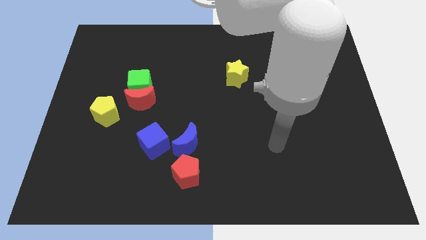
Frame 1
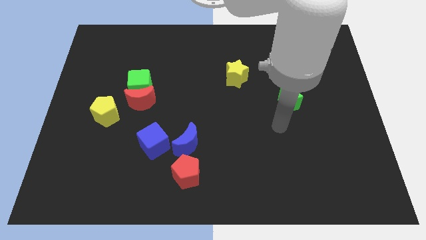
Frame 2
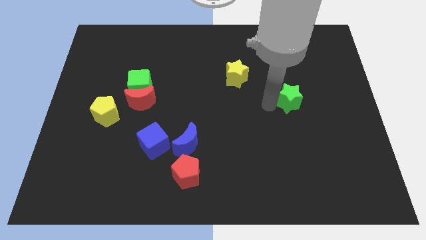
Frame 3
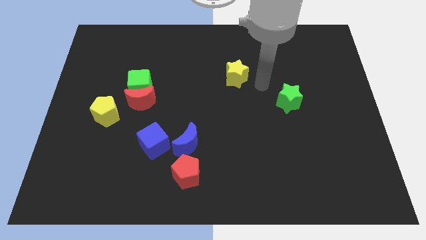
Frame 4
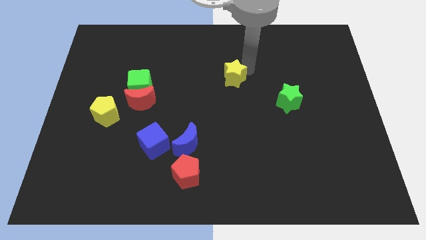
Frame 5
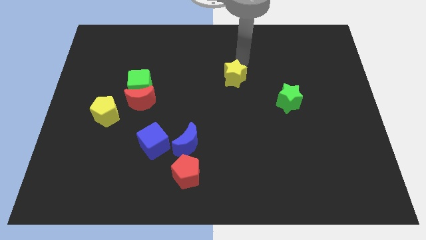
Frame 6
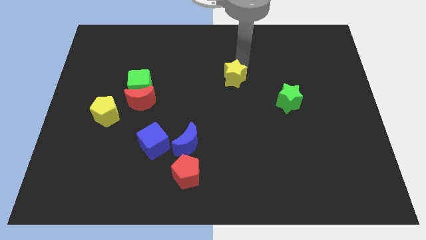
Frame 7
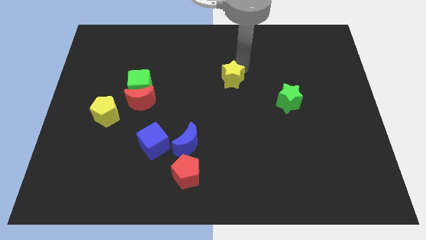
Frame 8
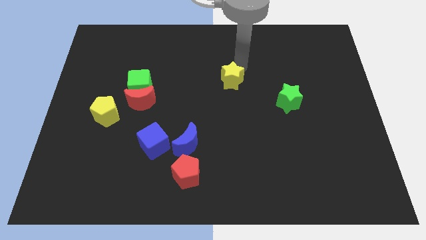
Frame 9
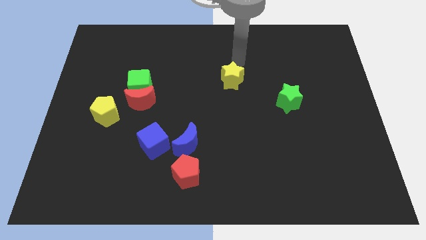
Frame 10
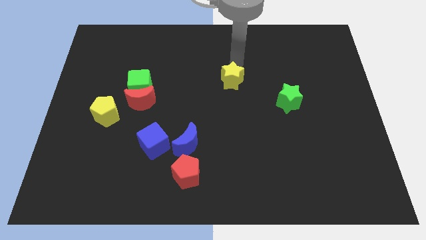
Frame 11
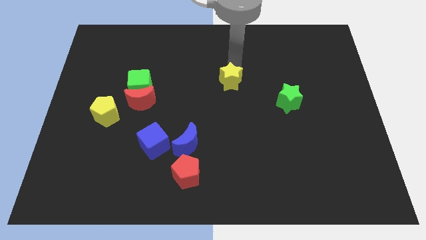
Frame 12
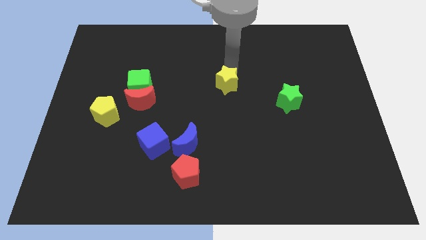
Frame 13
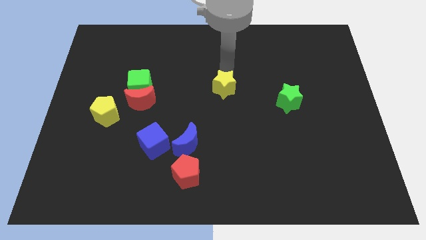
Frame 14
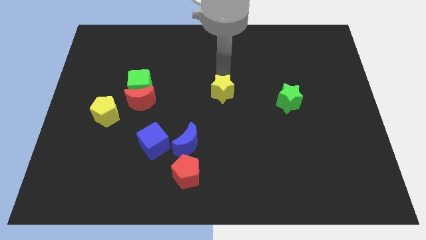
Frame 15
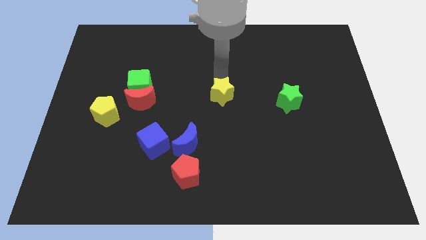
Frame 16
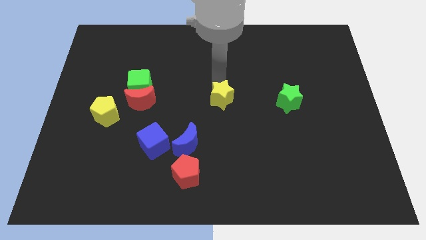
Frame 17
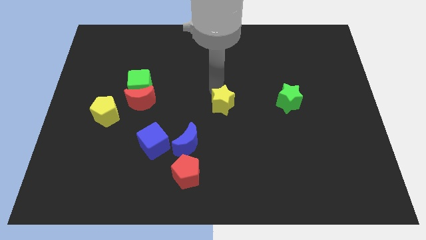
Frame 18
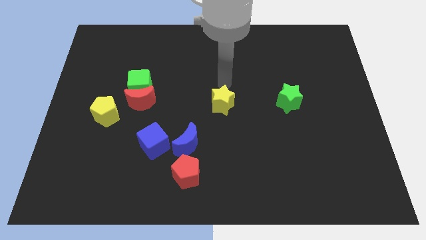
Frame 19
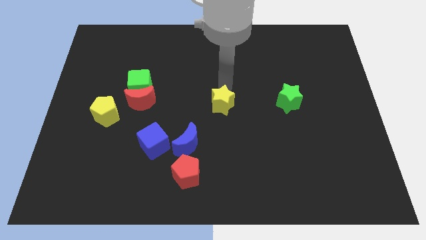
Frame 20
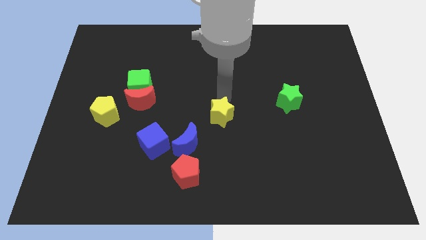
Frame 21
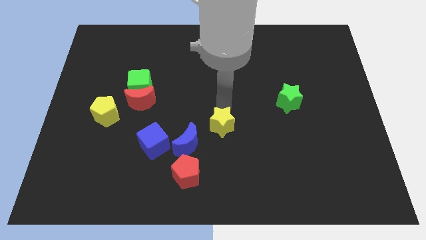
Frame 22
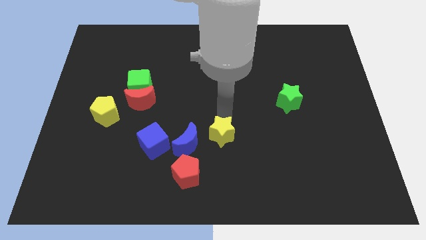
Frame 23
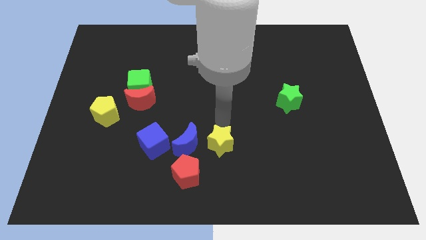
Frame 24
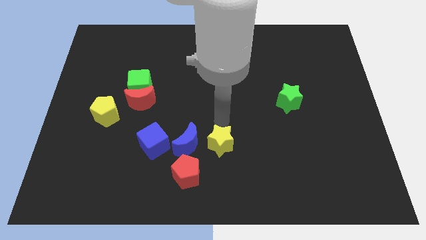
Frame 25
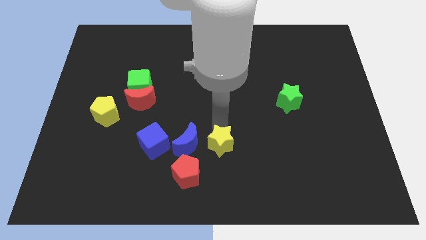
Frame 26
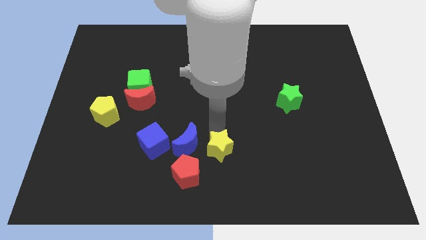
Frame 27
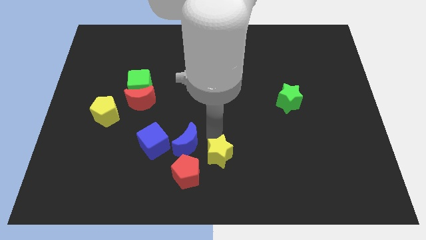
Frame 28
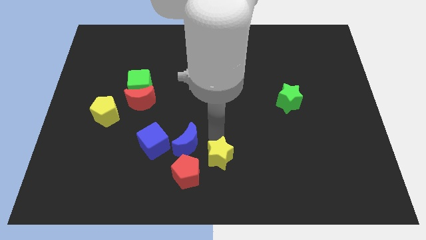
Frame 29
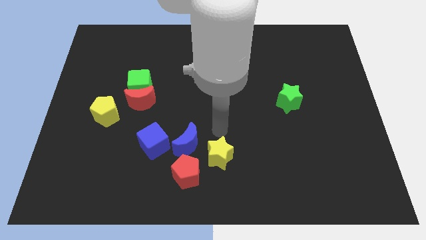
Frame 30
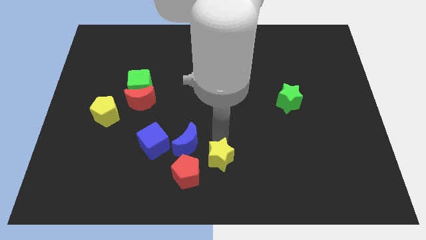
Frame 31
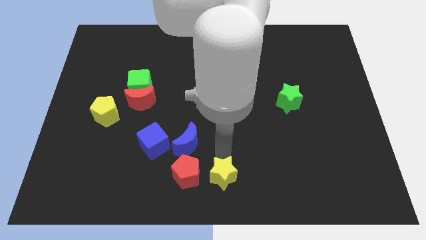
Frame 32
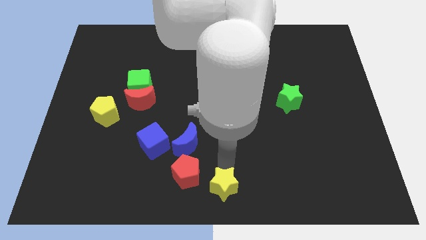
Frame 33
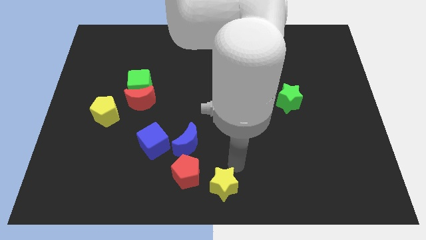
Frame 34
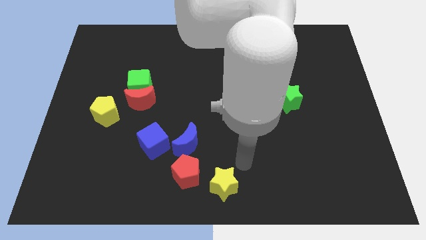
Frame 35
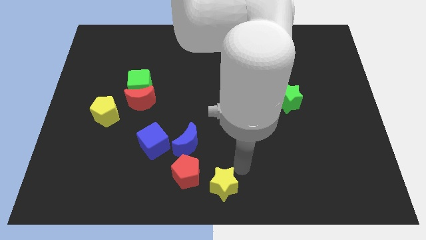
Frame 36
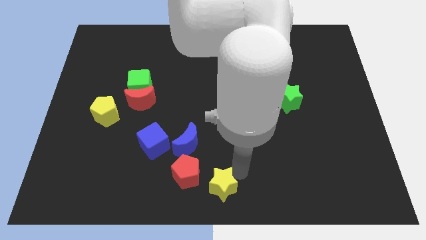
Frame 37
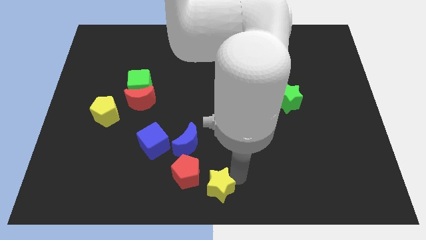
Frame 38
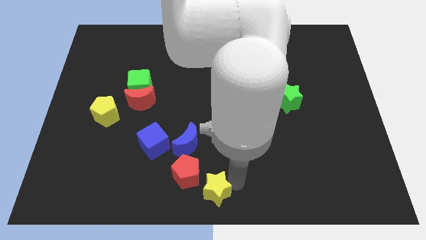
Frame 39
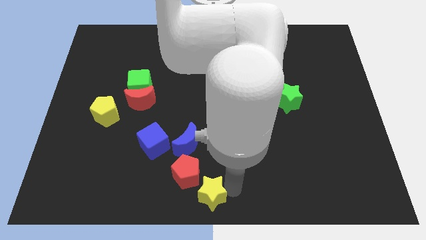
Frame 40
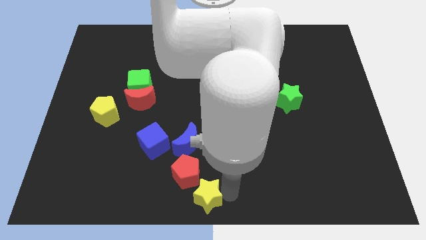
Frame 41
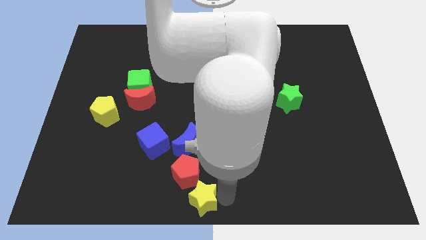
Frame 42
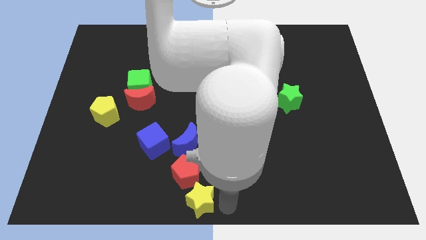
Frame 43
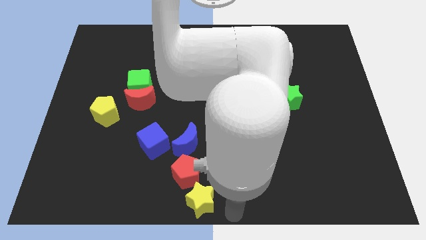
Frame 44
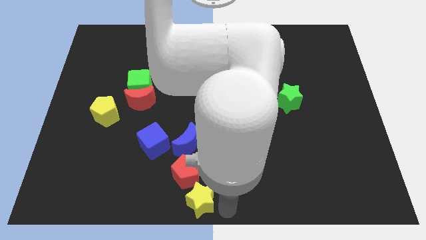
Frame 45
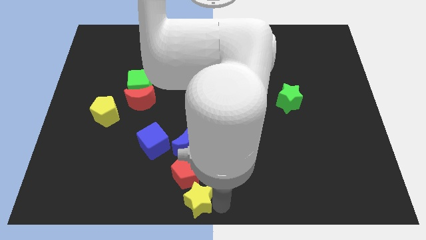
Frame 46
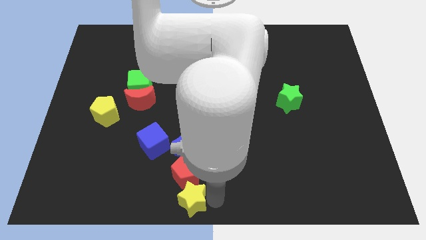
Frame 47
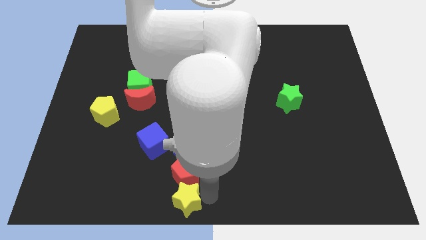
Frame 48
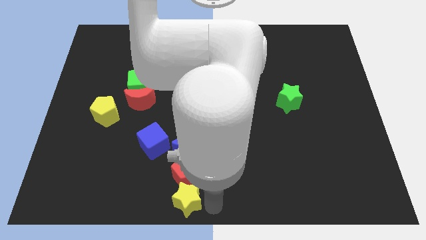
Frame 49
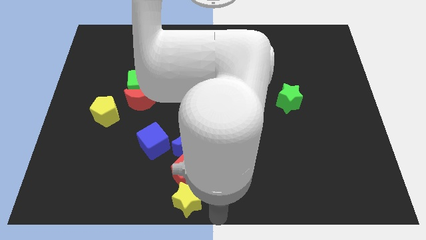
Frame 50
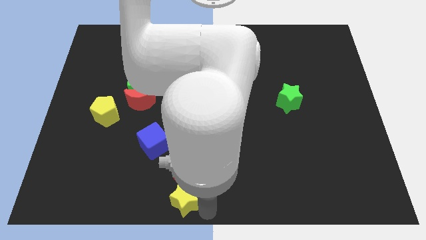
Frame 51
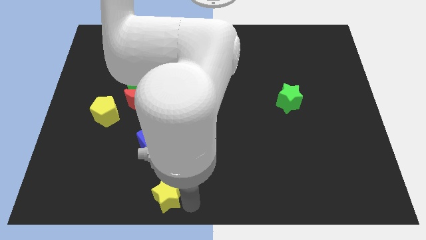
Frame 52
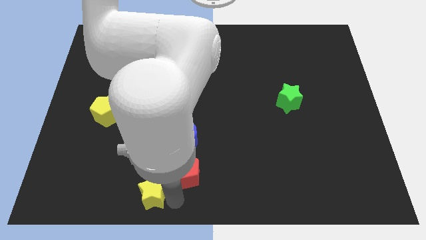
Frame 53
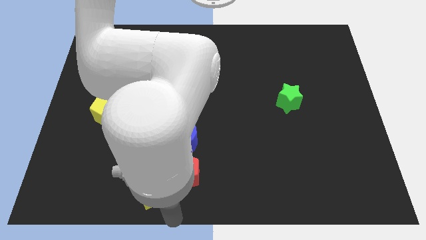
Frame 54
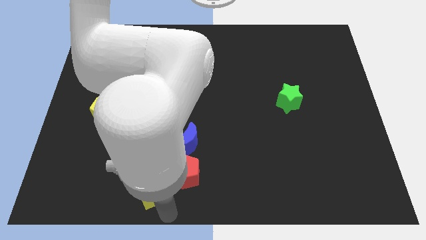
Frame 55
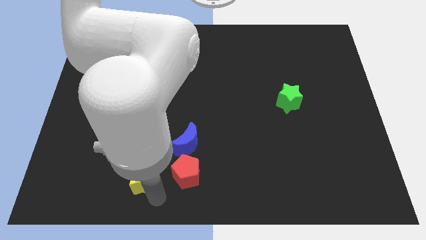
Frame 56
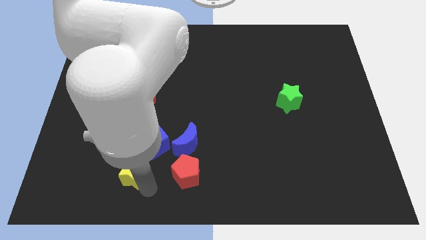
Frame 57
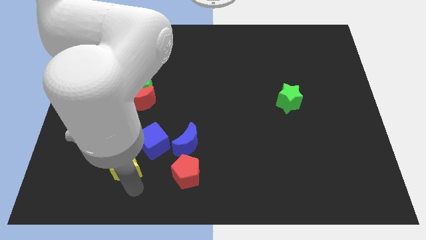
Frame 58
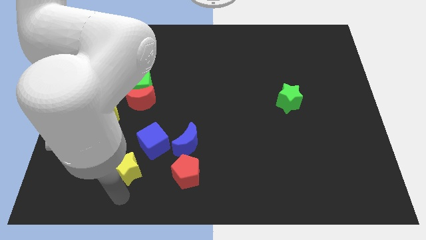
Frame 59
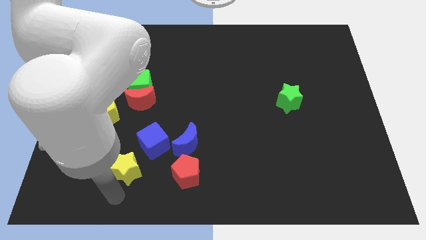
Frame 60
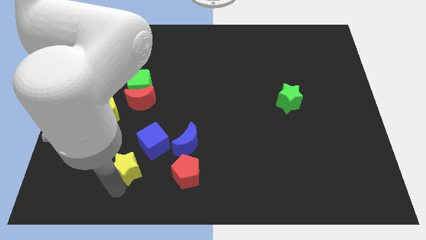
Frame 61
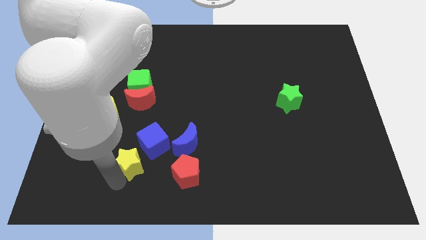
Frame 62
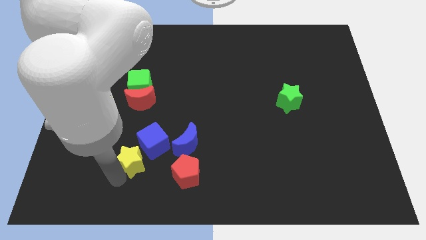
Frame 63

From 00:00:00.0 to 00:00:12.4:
move the yellow star to the left side of the blue moon

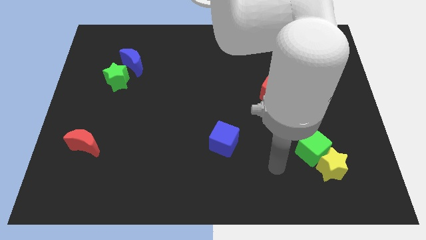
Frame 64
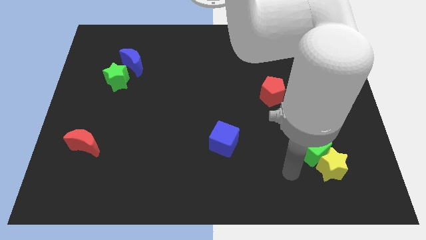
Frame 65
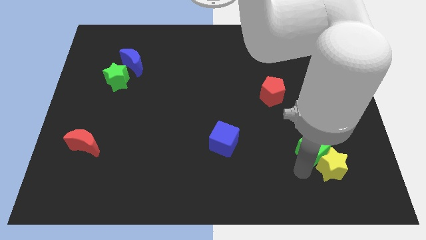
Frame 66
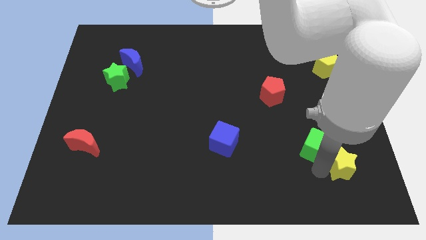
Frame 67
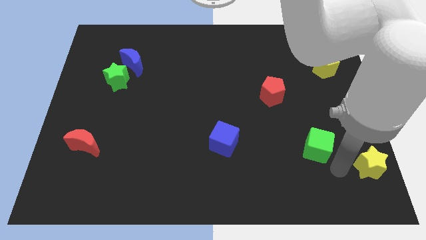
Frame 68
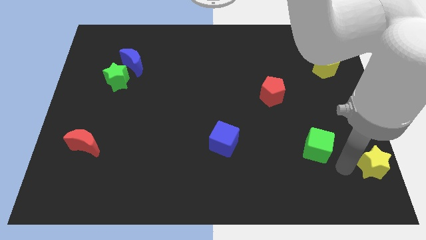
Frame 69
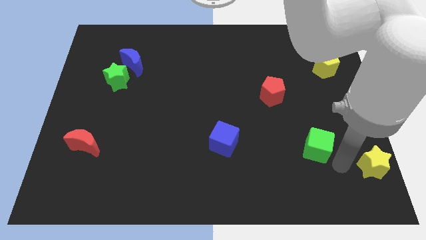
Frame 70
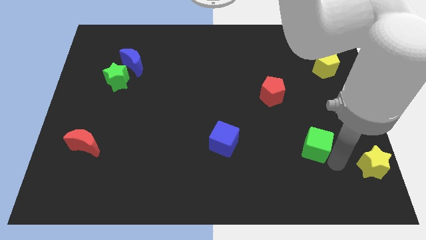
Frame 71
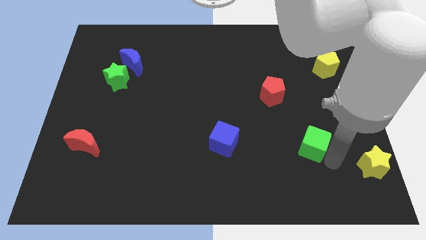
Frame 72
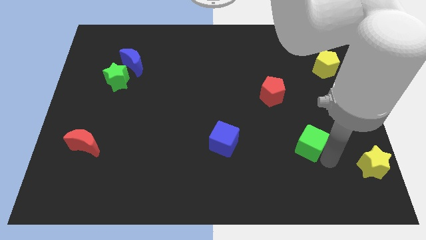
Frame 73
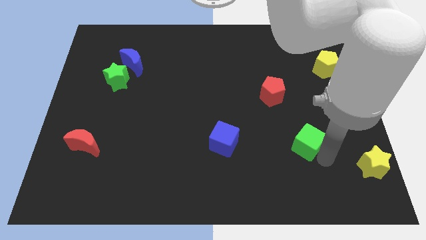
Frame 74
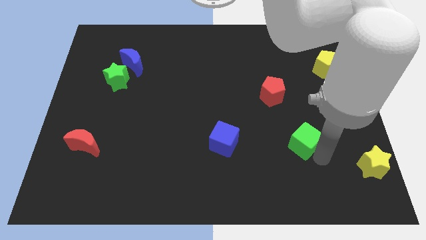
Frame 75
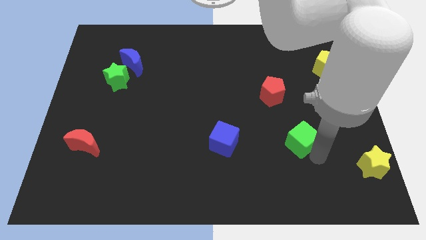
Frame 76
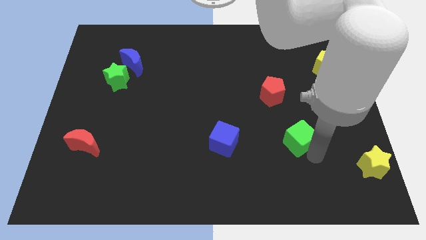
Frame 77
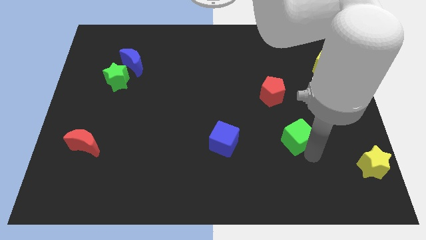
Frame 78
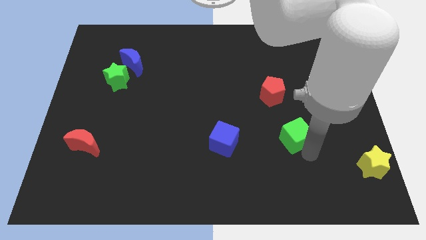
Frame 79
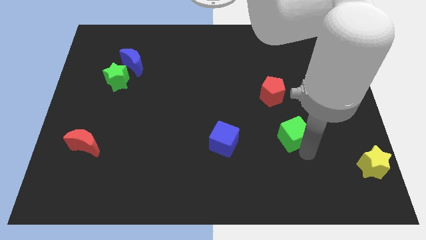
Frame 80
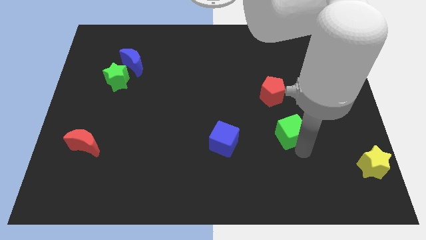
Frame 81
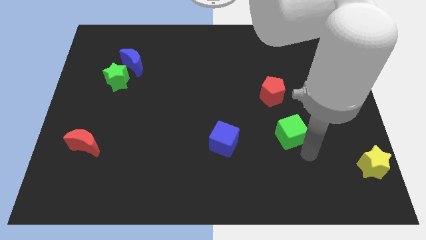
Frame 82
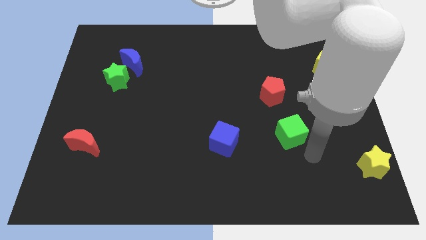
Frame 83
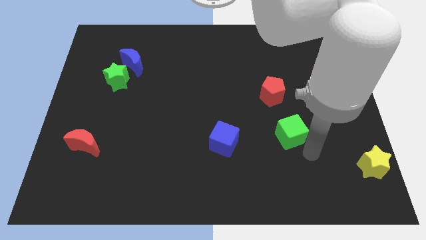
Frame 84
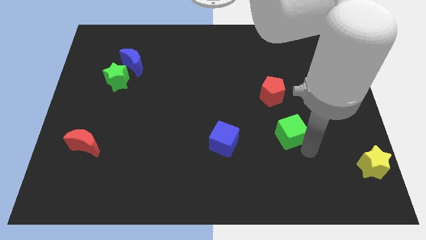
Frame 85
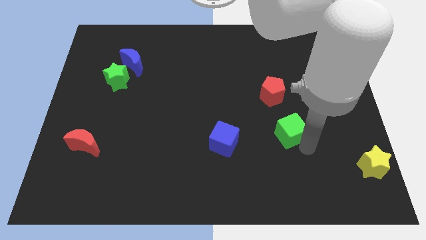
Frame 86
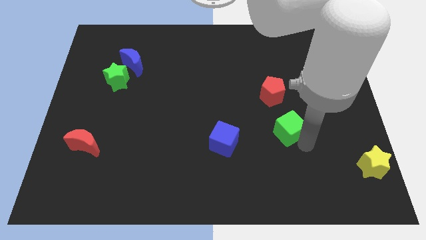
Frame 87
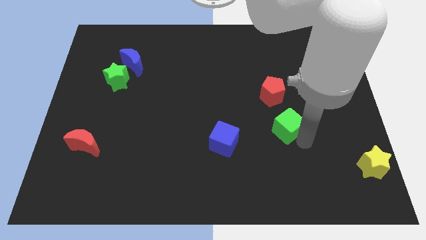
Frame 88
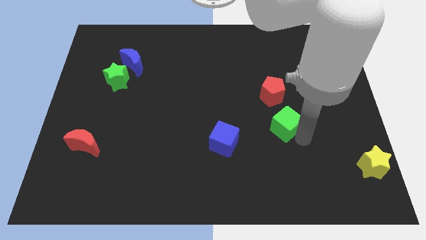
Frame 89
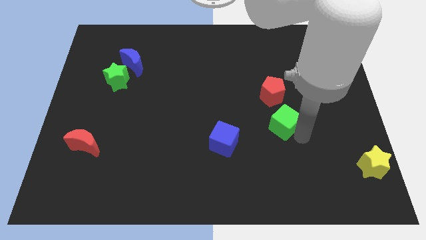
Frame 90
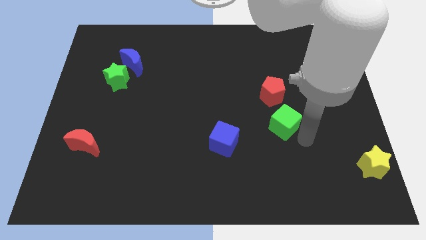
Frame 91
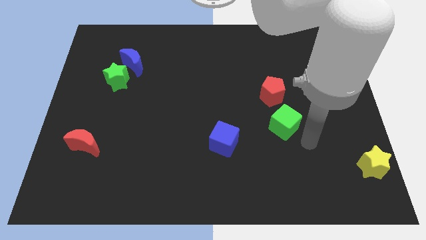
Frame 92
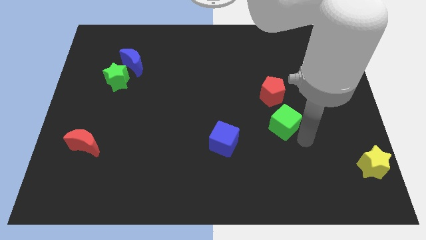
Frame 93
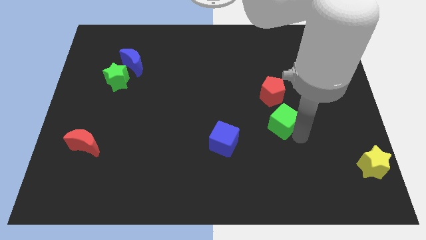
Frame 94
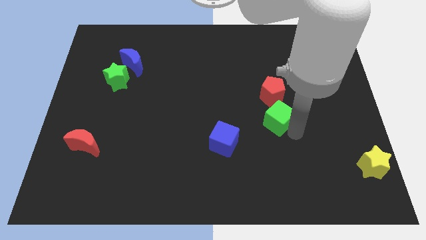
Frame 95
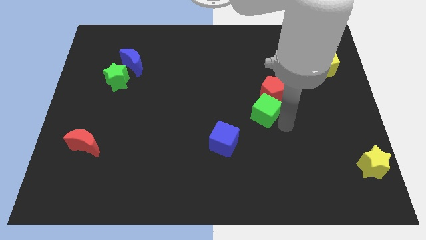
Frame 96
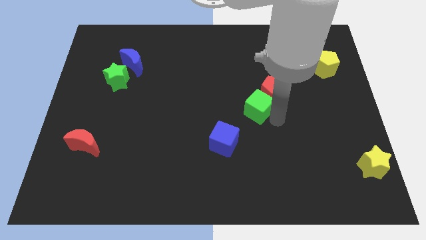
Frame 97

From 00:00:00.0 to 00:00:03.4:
slide the green cube to the left side of the red pentagon
